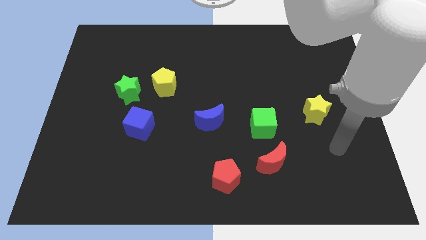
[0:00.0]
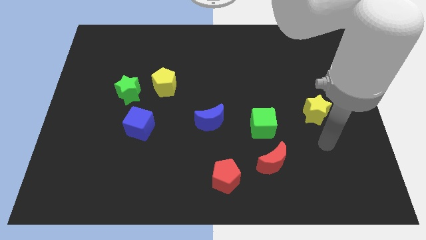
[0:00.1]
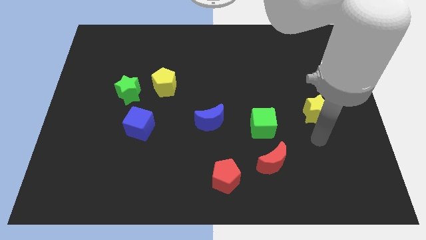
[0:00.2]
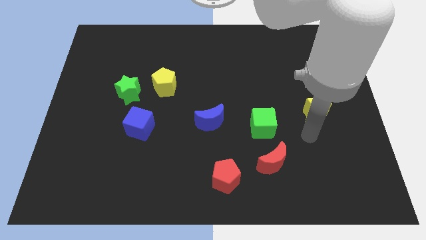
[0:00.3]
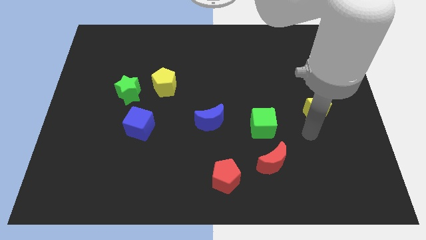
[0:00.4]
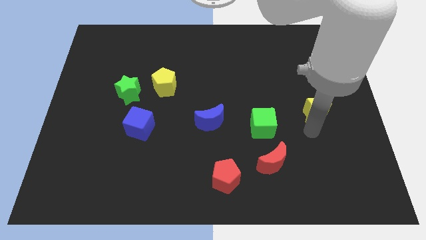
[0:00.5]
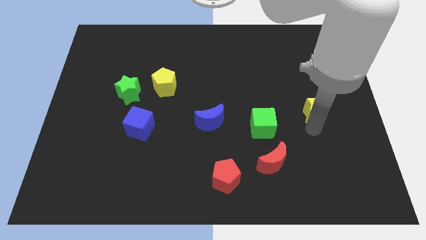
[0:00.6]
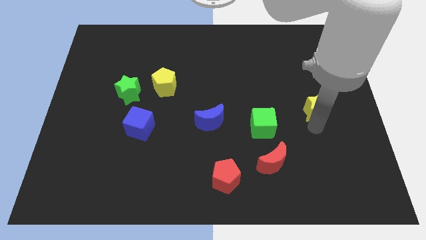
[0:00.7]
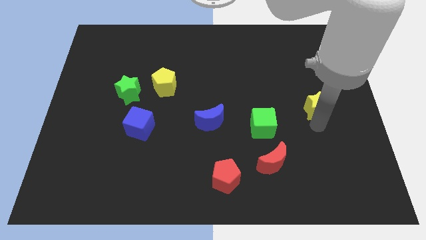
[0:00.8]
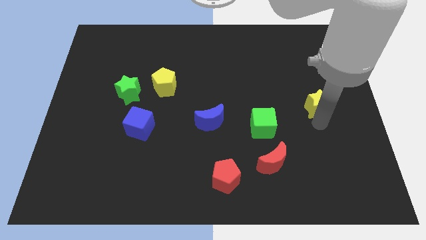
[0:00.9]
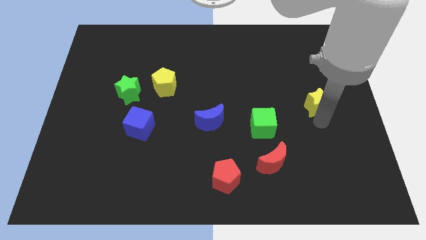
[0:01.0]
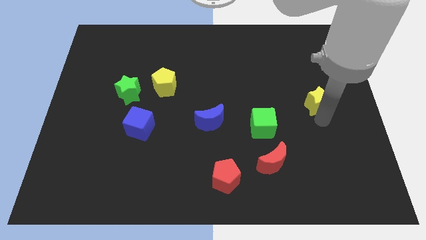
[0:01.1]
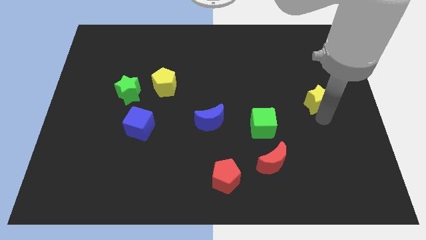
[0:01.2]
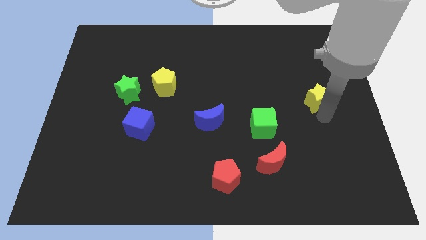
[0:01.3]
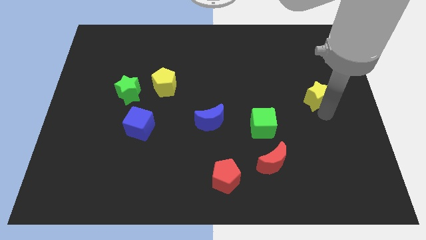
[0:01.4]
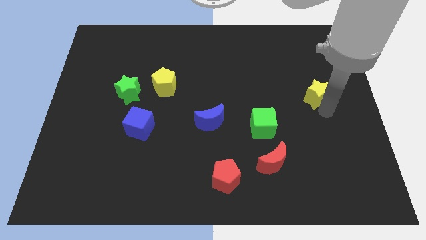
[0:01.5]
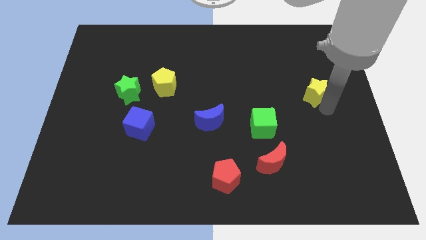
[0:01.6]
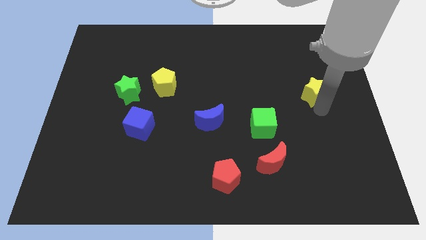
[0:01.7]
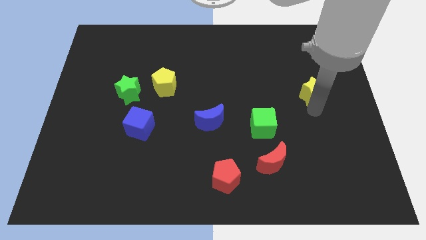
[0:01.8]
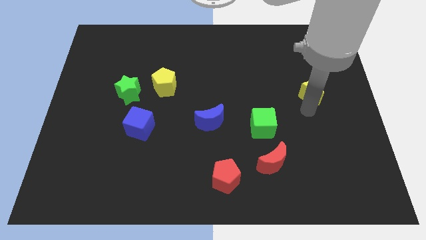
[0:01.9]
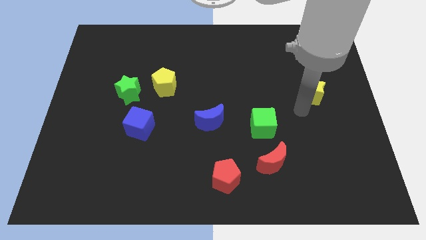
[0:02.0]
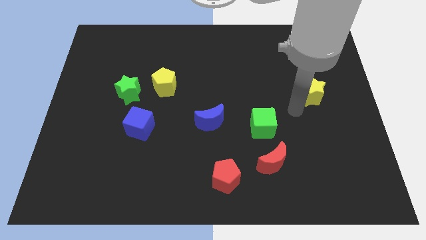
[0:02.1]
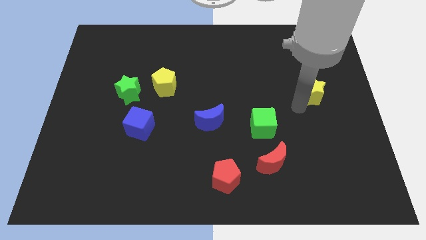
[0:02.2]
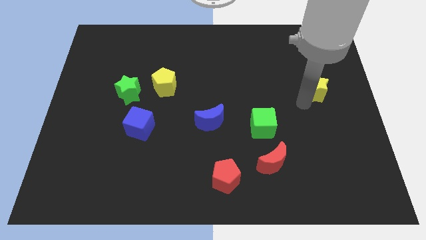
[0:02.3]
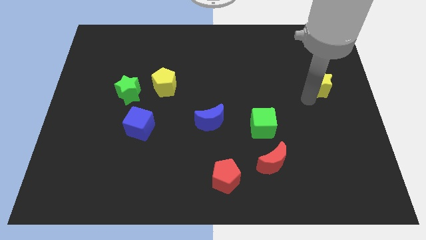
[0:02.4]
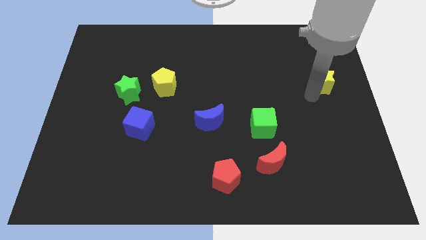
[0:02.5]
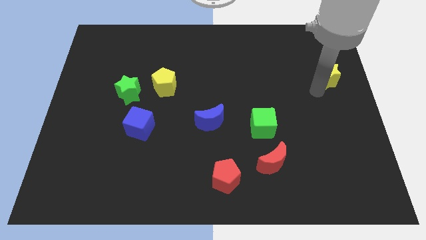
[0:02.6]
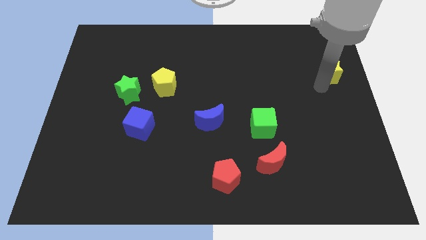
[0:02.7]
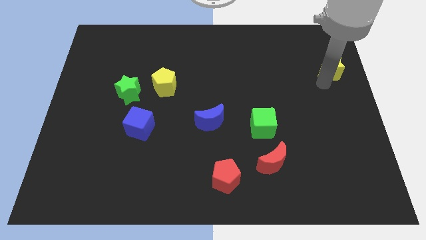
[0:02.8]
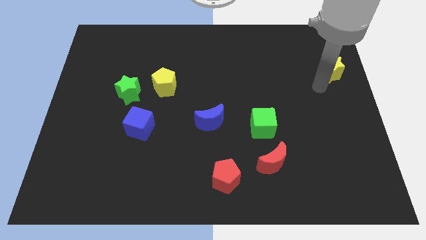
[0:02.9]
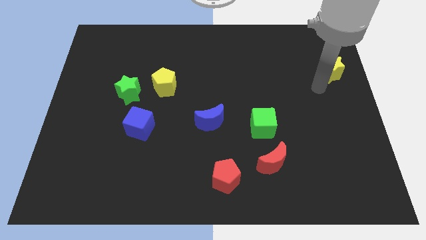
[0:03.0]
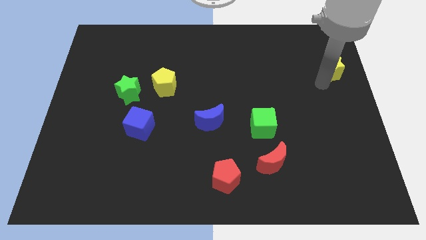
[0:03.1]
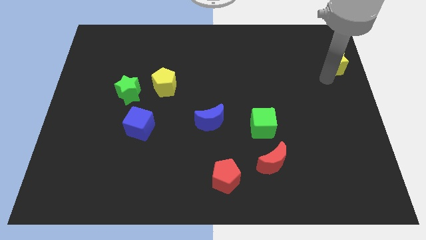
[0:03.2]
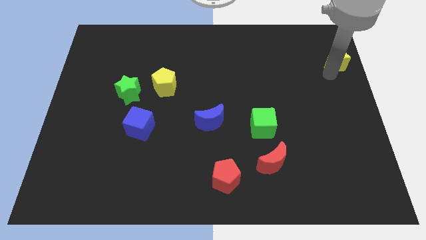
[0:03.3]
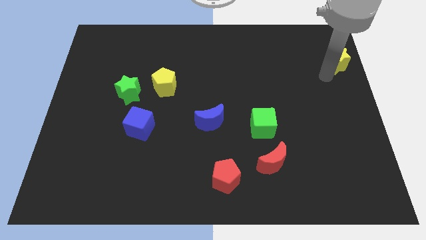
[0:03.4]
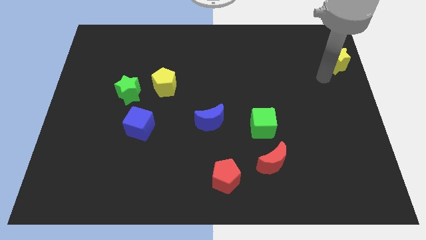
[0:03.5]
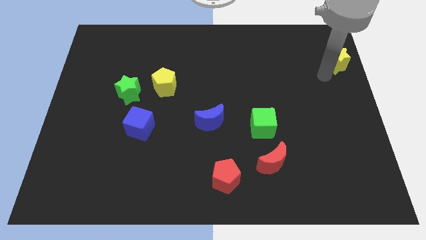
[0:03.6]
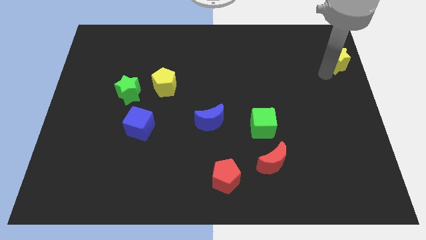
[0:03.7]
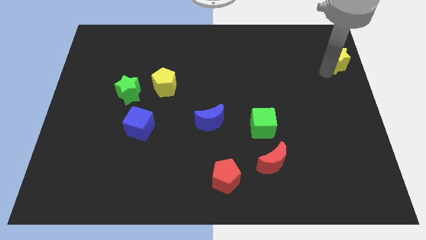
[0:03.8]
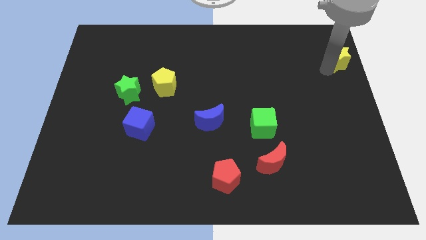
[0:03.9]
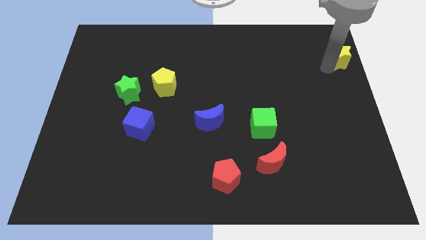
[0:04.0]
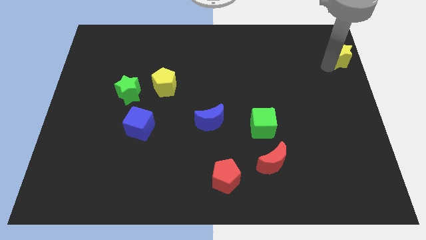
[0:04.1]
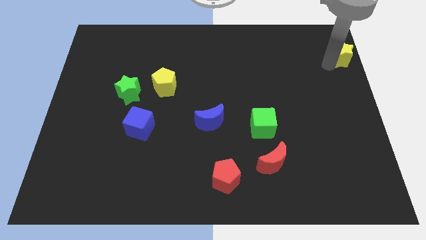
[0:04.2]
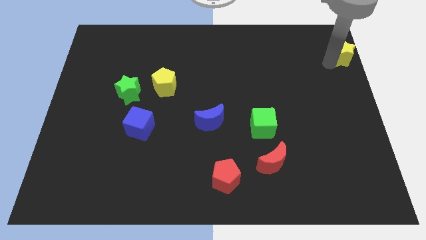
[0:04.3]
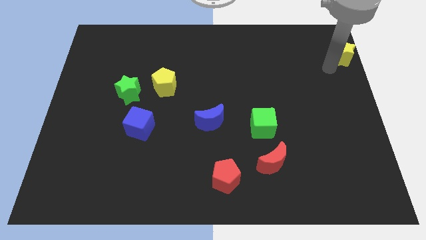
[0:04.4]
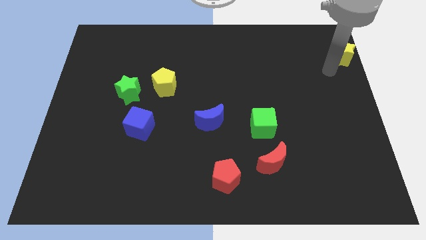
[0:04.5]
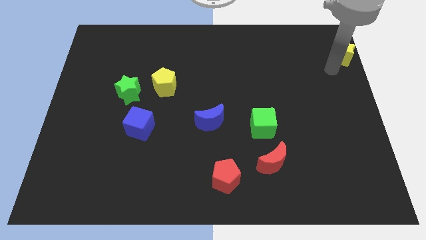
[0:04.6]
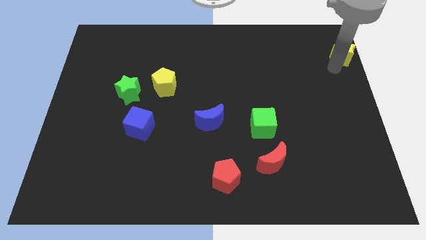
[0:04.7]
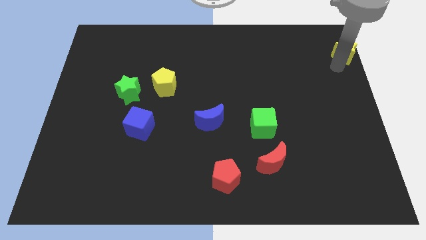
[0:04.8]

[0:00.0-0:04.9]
push the yellow star to the top right corner

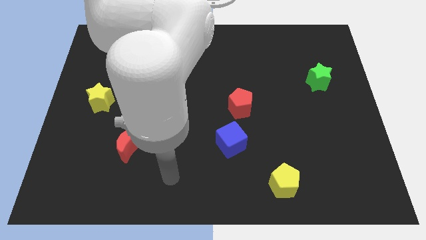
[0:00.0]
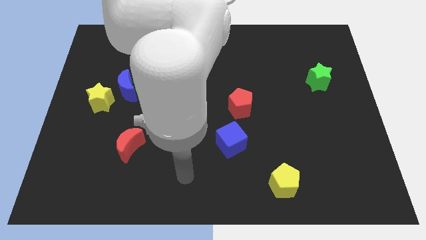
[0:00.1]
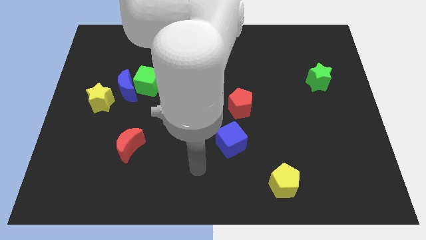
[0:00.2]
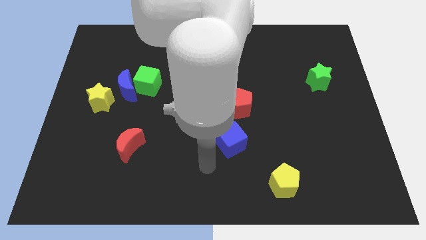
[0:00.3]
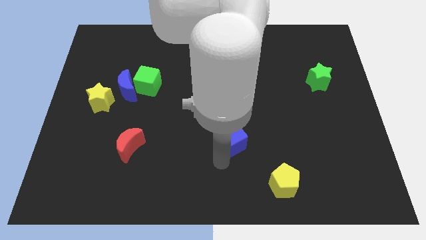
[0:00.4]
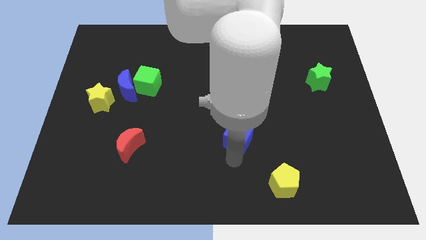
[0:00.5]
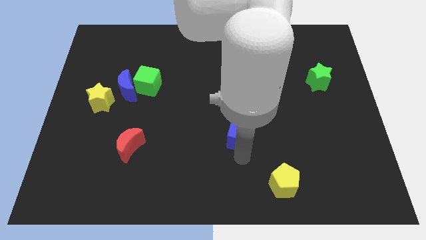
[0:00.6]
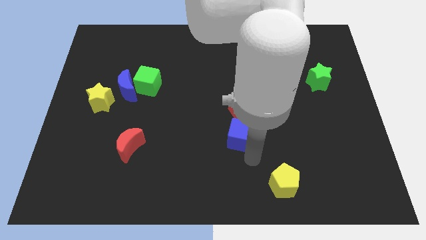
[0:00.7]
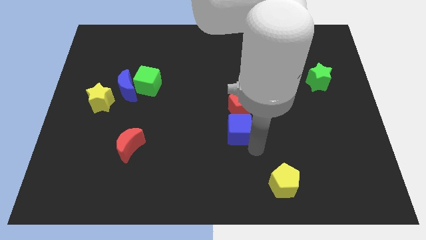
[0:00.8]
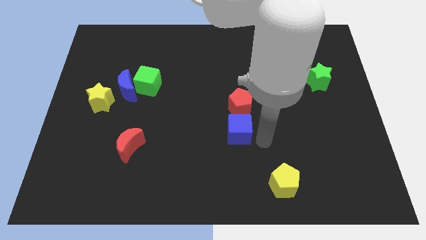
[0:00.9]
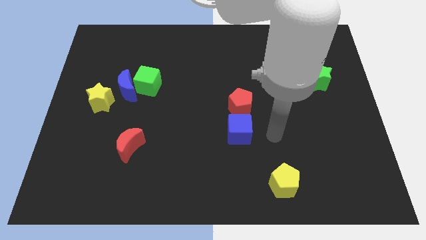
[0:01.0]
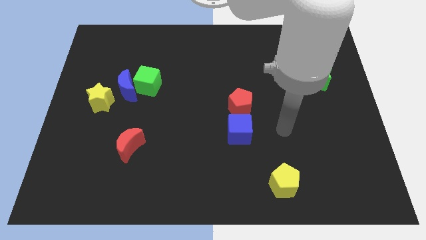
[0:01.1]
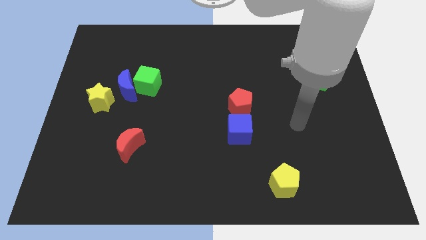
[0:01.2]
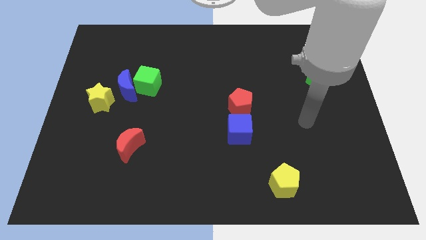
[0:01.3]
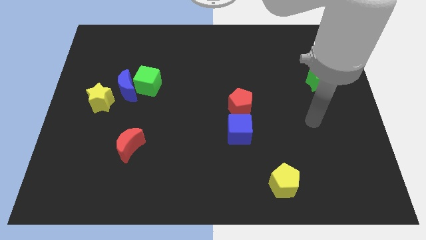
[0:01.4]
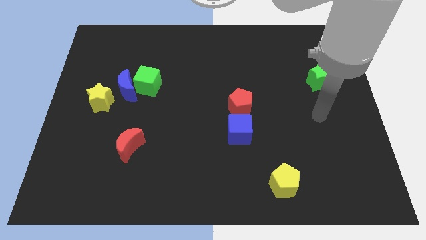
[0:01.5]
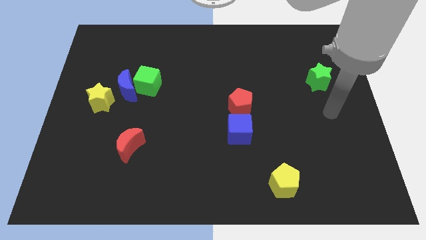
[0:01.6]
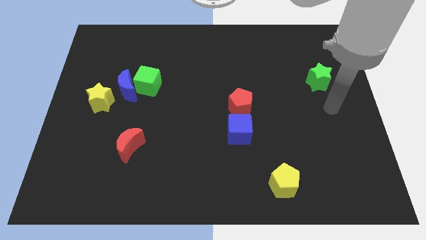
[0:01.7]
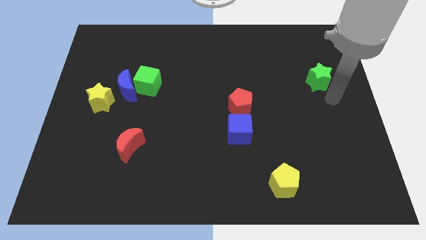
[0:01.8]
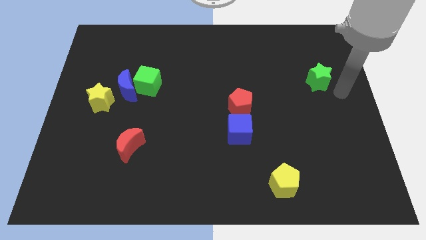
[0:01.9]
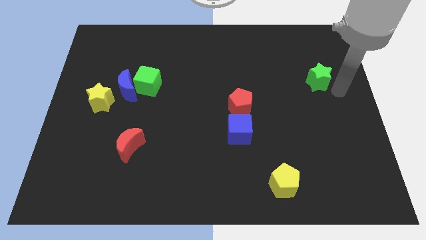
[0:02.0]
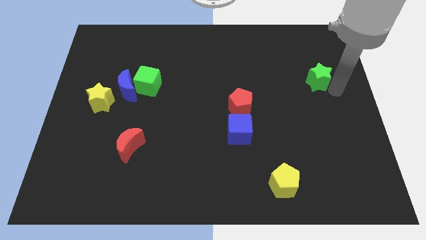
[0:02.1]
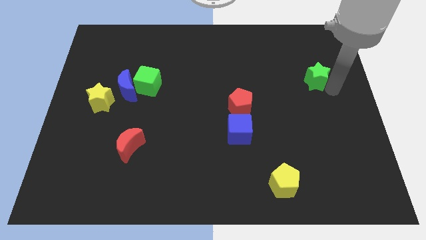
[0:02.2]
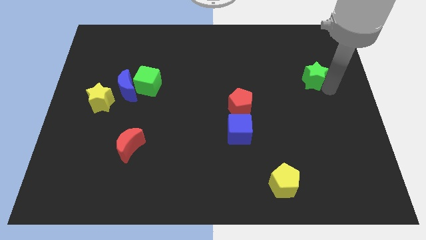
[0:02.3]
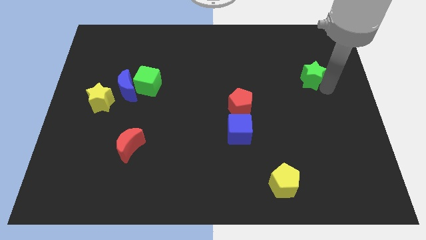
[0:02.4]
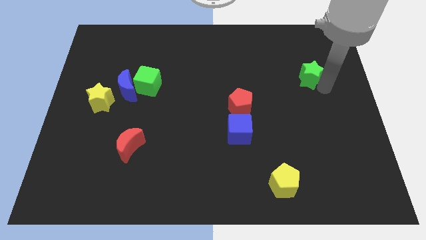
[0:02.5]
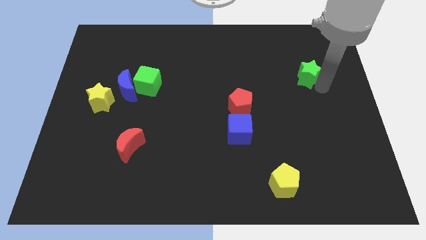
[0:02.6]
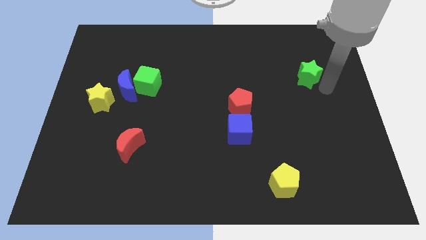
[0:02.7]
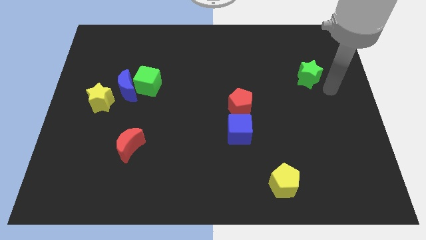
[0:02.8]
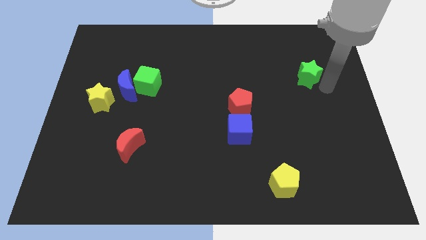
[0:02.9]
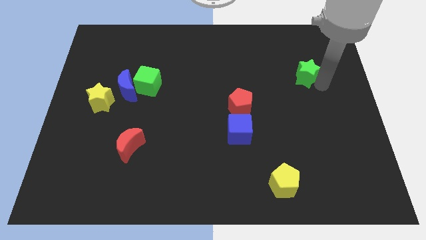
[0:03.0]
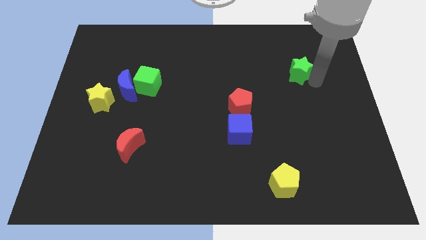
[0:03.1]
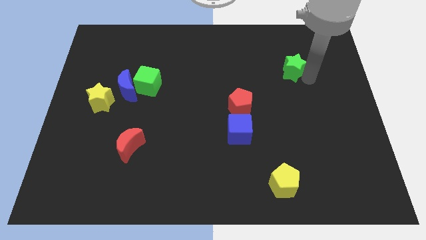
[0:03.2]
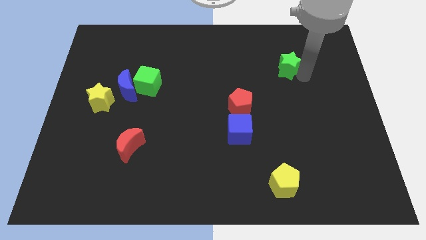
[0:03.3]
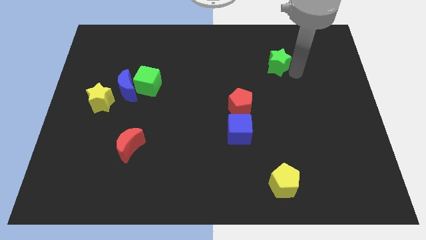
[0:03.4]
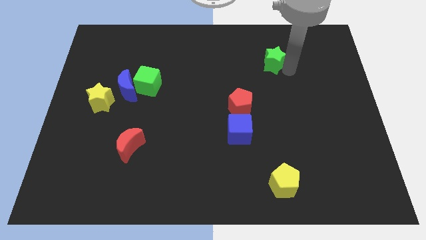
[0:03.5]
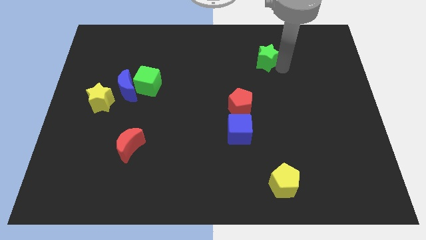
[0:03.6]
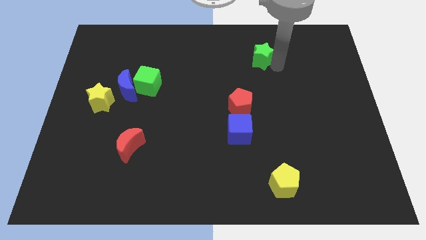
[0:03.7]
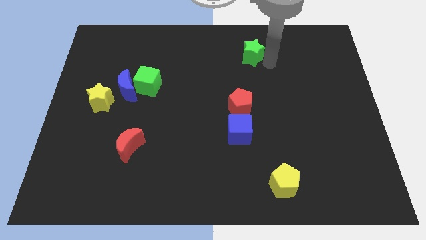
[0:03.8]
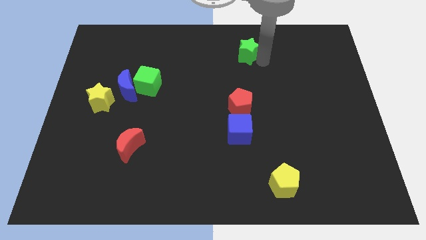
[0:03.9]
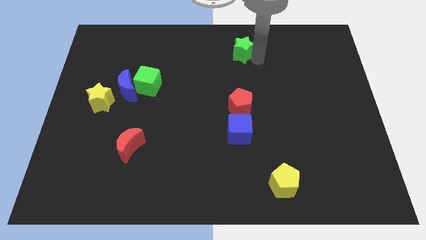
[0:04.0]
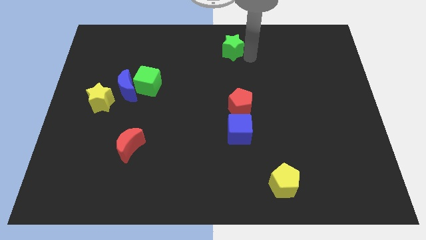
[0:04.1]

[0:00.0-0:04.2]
push the green star to the top
